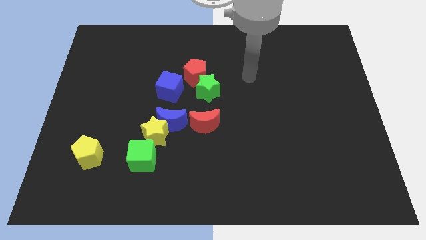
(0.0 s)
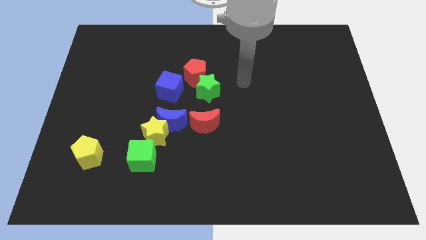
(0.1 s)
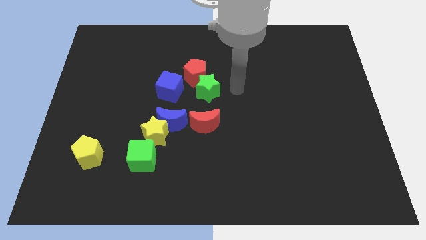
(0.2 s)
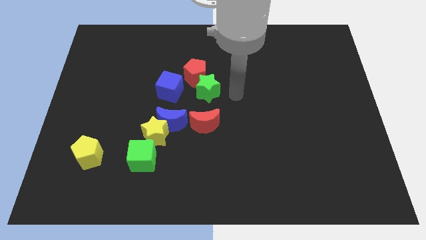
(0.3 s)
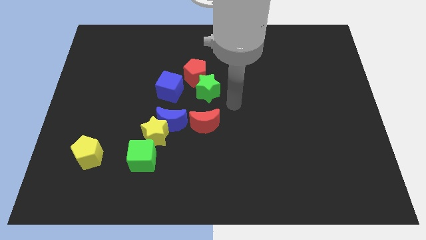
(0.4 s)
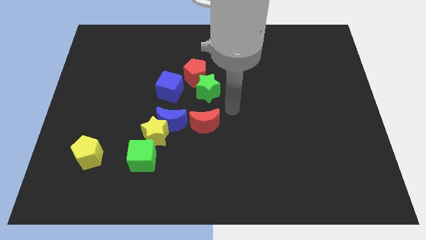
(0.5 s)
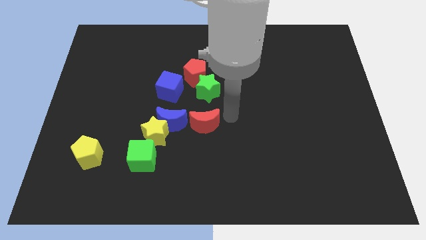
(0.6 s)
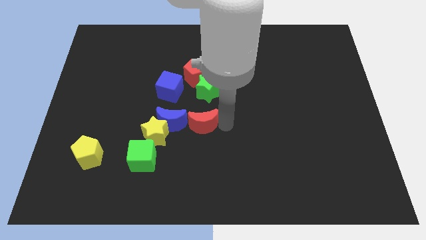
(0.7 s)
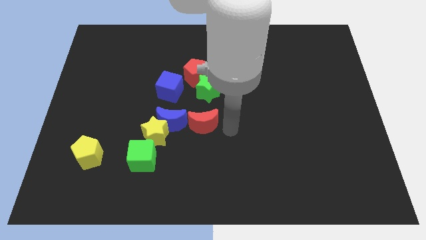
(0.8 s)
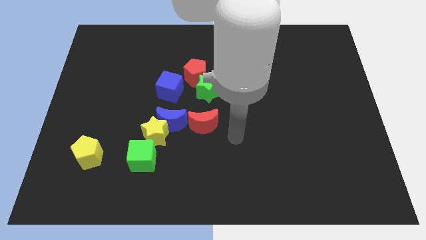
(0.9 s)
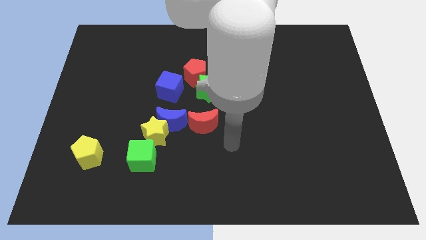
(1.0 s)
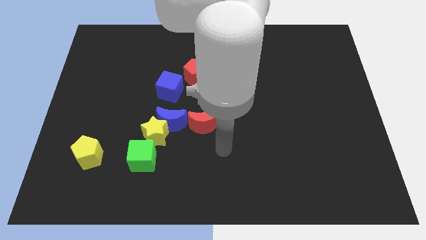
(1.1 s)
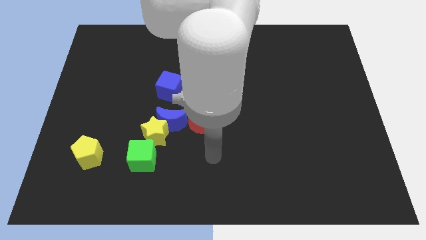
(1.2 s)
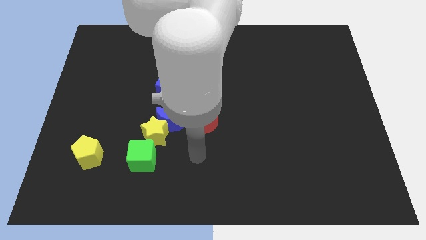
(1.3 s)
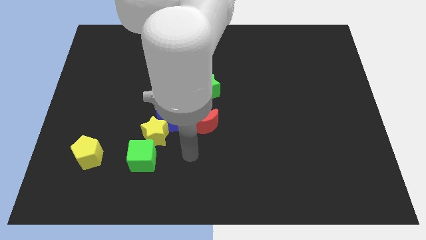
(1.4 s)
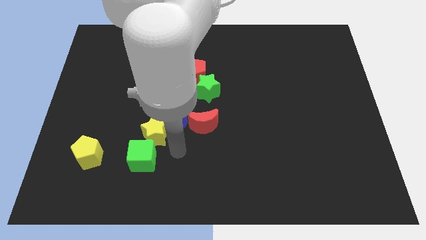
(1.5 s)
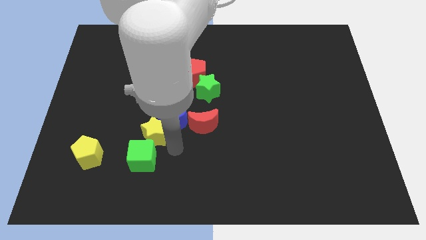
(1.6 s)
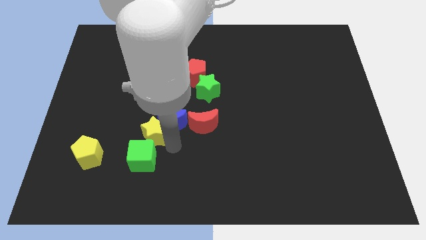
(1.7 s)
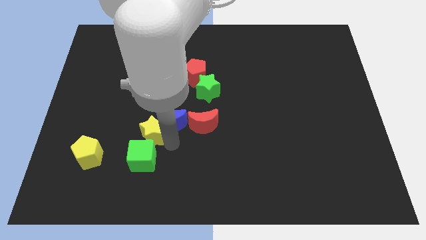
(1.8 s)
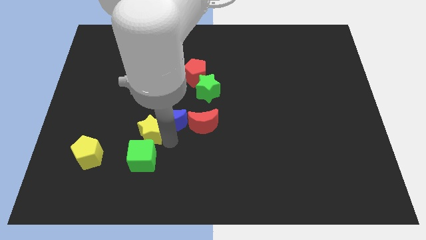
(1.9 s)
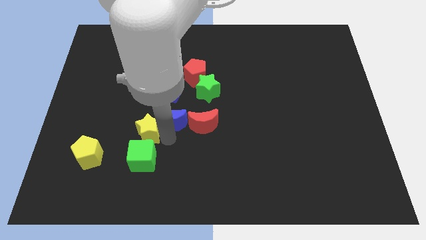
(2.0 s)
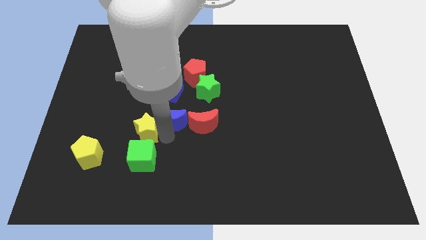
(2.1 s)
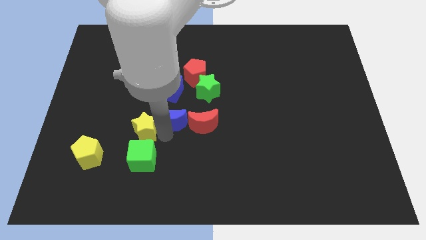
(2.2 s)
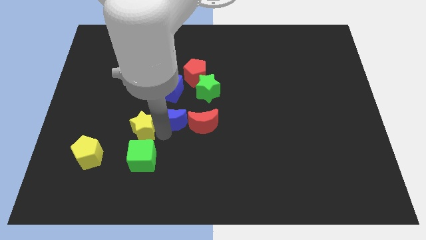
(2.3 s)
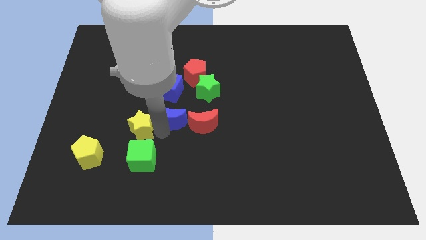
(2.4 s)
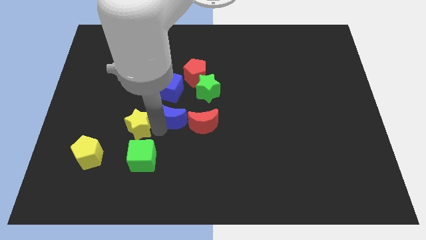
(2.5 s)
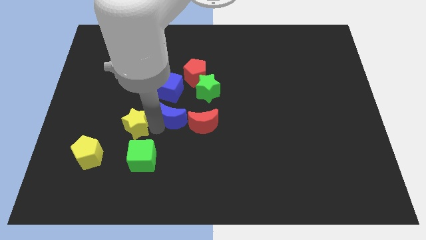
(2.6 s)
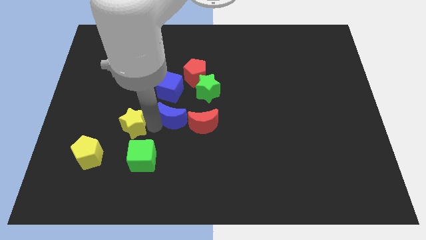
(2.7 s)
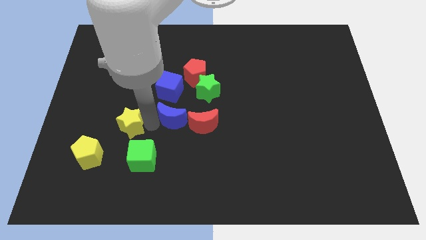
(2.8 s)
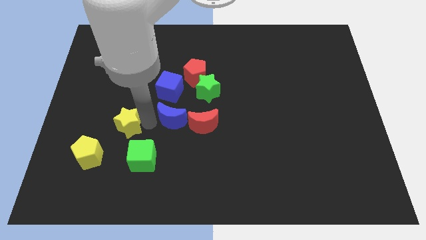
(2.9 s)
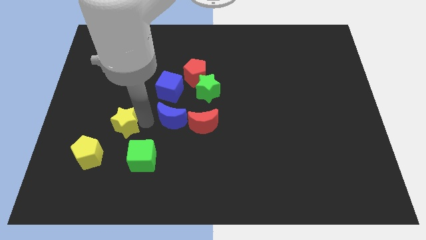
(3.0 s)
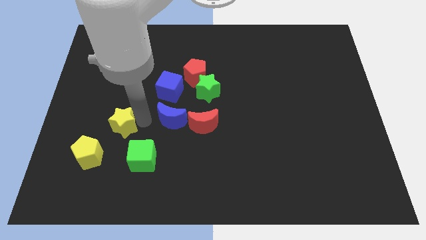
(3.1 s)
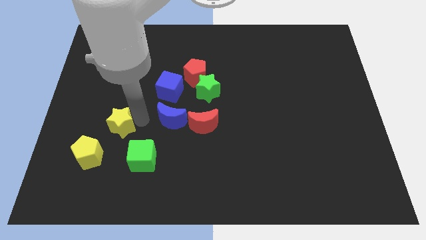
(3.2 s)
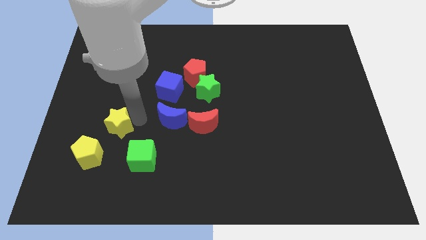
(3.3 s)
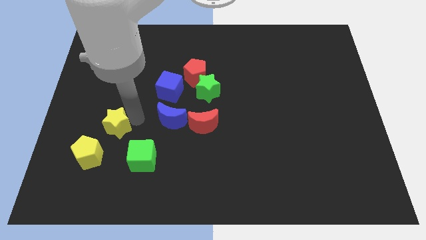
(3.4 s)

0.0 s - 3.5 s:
separate the yellow star from the blue moon and green cube

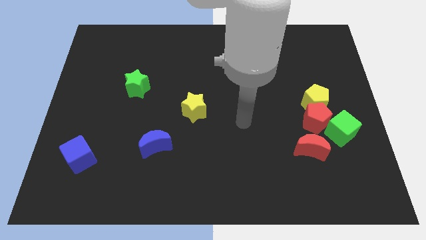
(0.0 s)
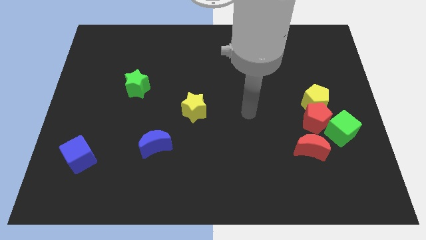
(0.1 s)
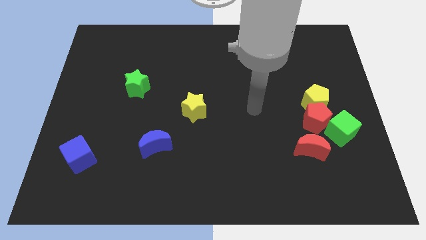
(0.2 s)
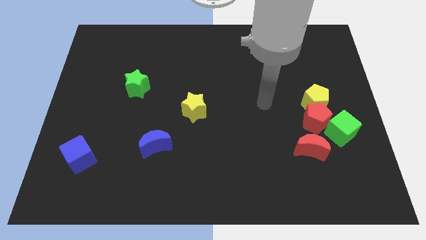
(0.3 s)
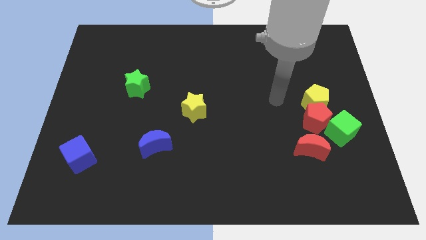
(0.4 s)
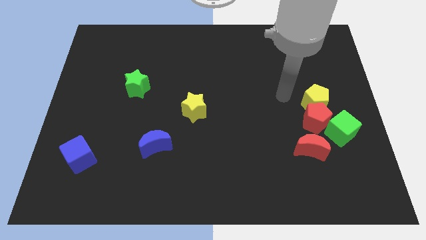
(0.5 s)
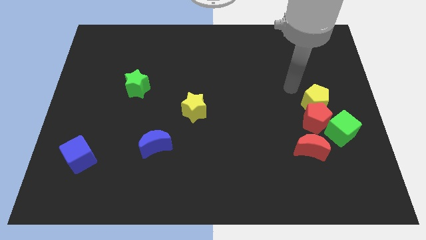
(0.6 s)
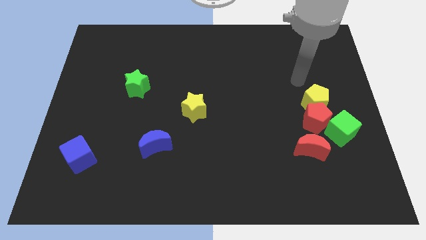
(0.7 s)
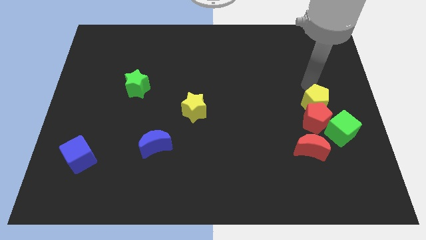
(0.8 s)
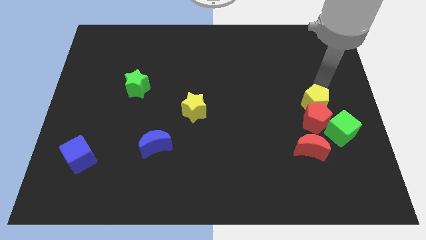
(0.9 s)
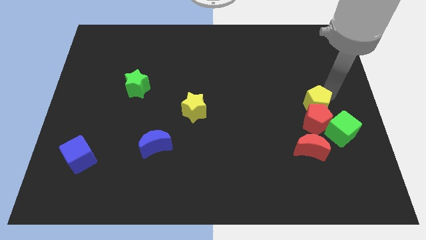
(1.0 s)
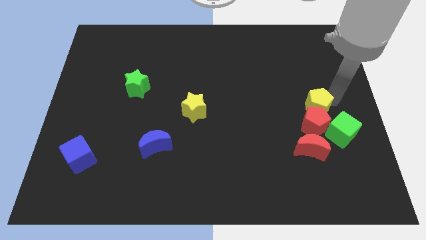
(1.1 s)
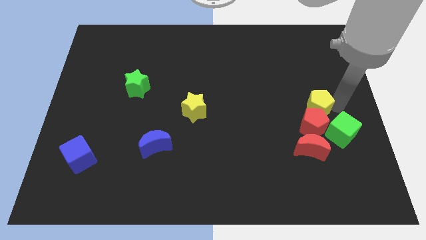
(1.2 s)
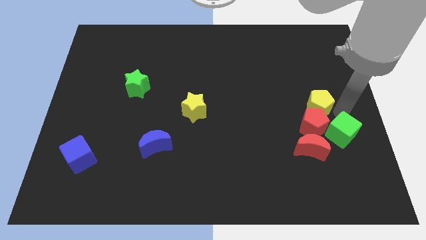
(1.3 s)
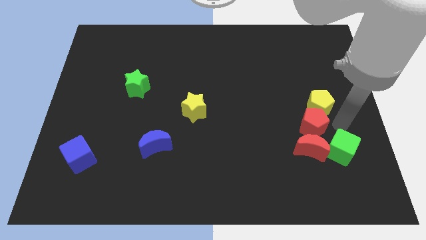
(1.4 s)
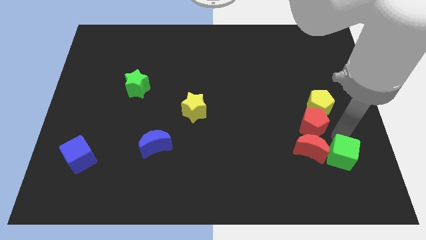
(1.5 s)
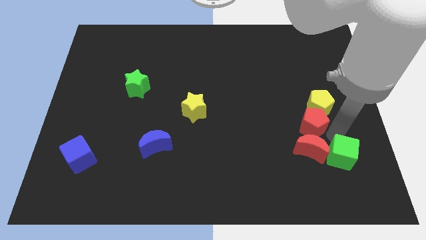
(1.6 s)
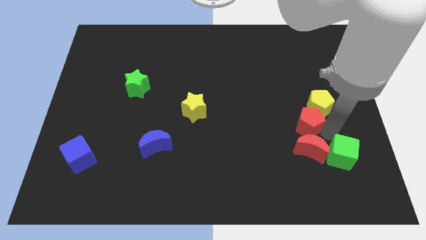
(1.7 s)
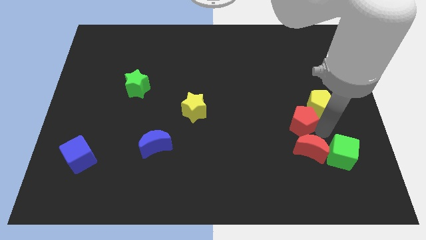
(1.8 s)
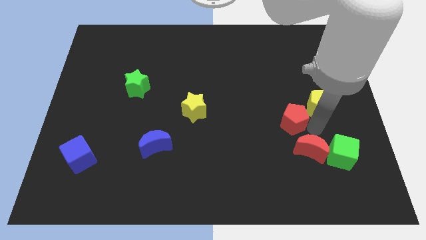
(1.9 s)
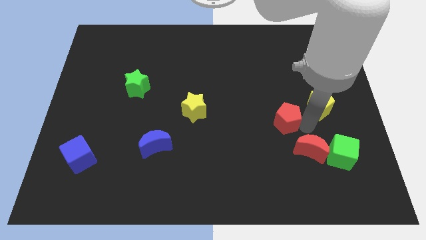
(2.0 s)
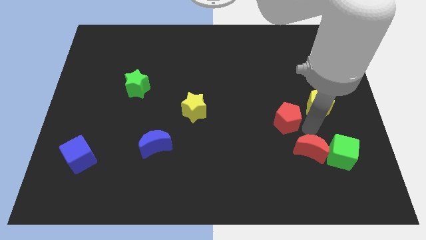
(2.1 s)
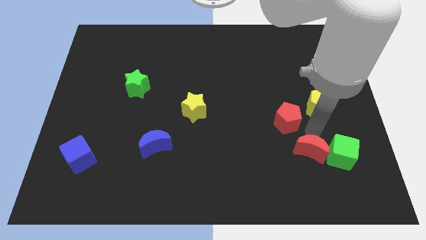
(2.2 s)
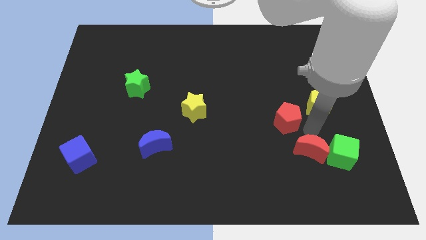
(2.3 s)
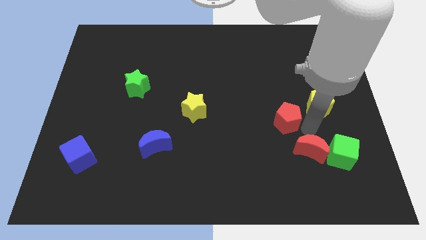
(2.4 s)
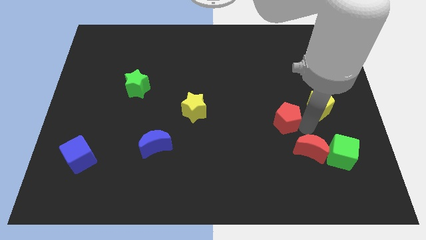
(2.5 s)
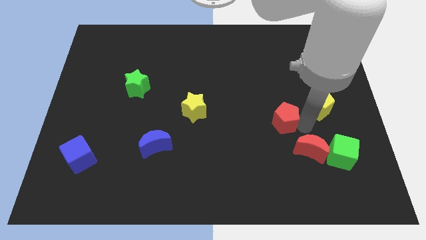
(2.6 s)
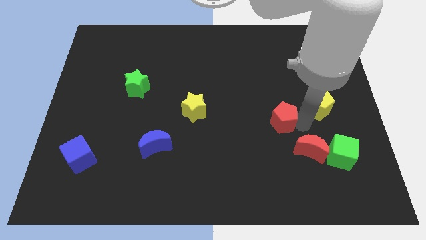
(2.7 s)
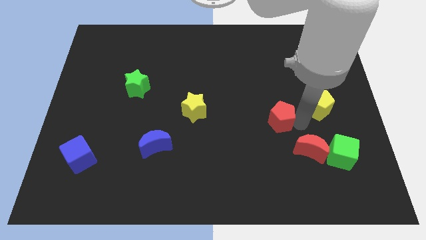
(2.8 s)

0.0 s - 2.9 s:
separate the red pentagon from the yellow pentagon, green cube, and red moon

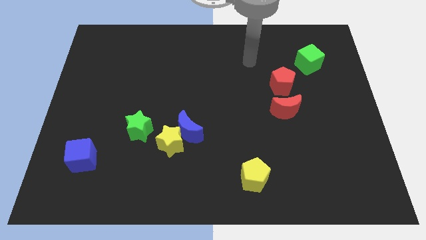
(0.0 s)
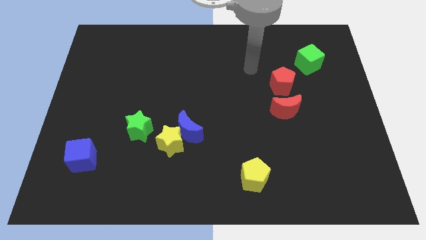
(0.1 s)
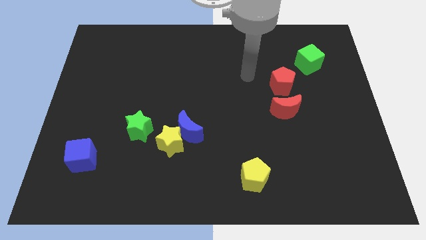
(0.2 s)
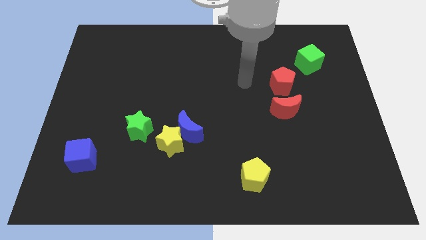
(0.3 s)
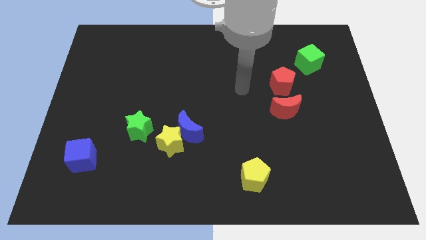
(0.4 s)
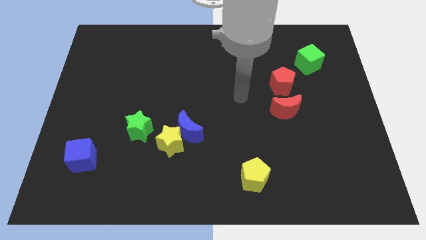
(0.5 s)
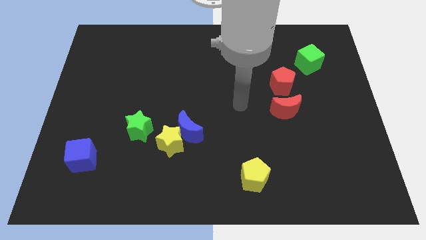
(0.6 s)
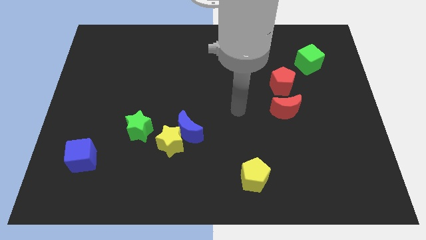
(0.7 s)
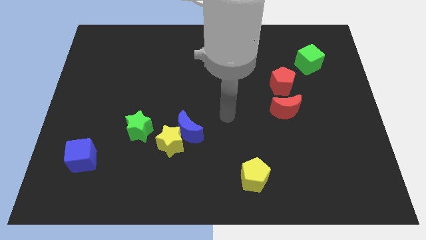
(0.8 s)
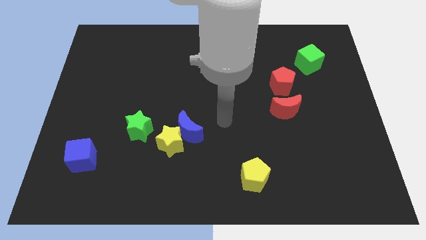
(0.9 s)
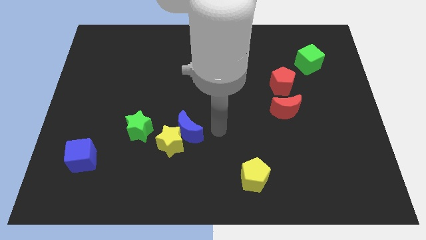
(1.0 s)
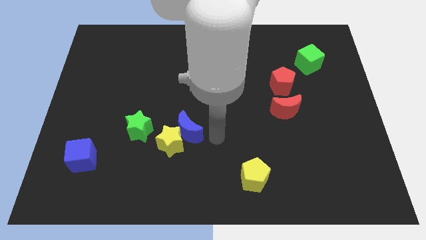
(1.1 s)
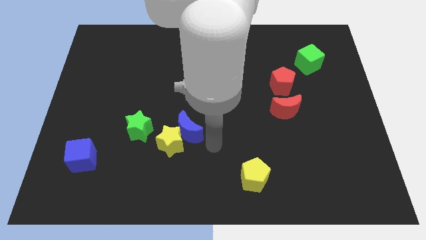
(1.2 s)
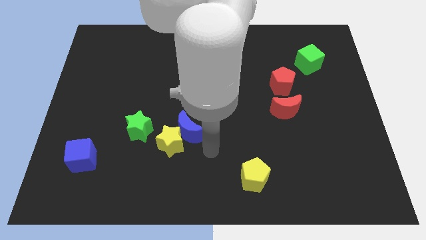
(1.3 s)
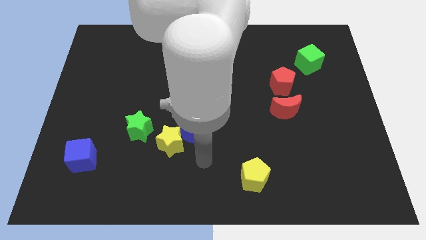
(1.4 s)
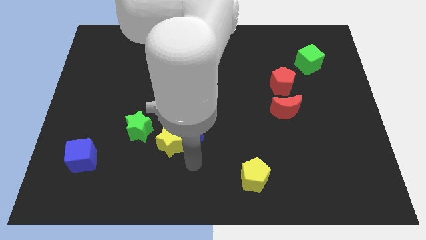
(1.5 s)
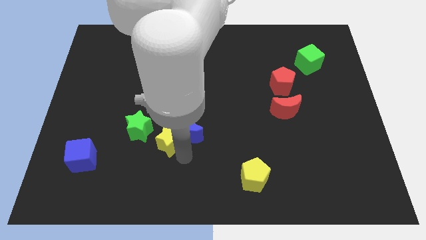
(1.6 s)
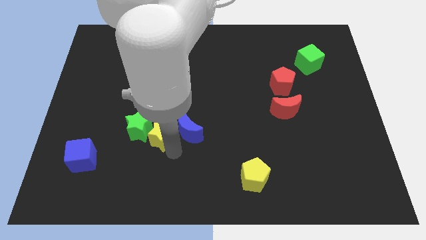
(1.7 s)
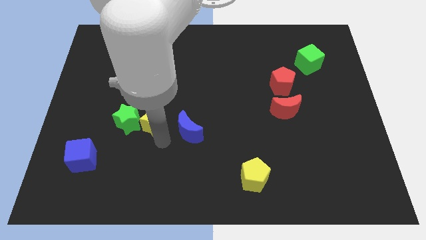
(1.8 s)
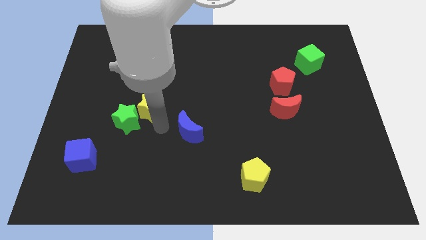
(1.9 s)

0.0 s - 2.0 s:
separate the blue moon from the yellow star

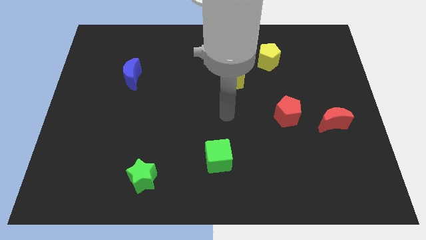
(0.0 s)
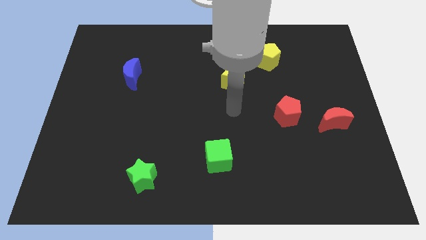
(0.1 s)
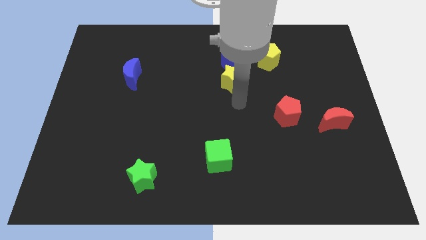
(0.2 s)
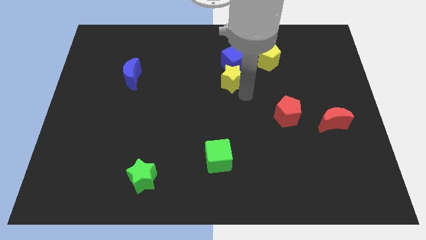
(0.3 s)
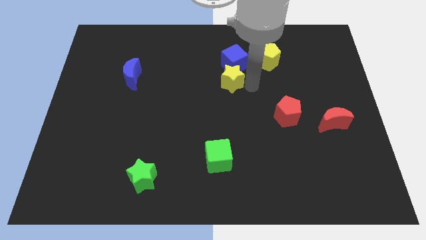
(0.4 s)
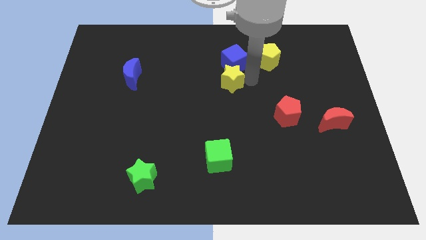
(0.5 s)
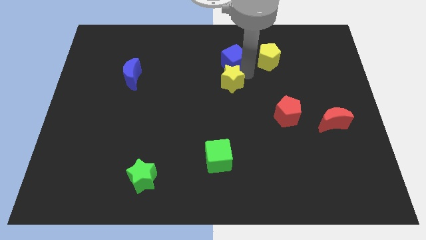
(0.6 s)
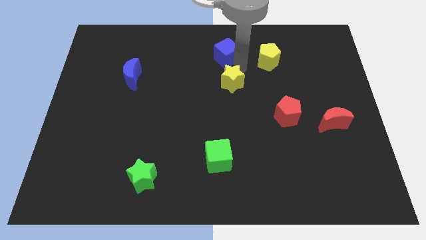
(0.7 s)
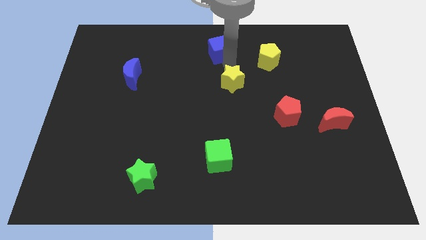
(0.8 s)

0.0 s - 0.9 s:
separate the yellow star from the blue cube

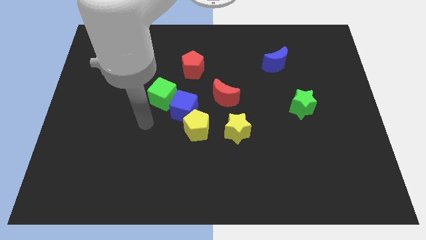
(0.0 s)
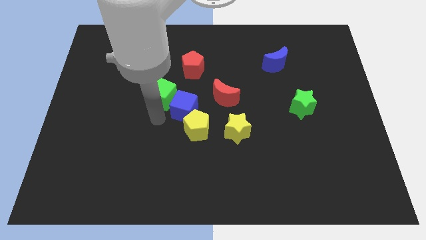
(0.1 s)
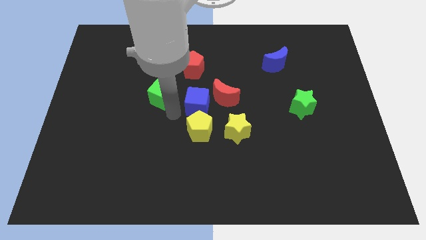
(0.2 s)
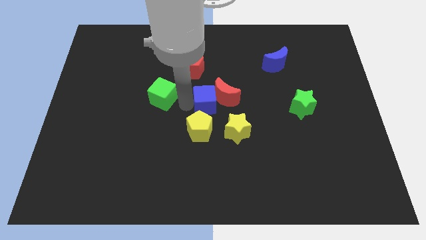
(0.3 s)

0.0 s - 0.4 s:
pull the green cube apart from the blue cube
